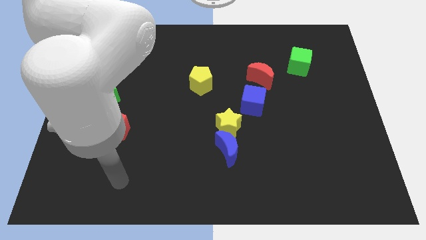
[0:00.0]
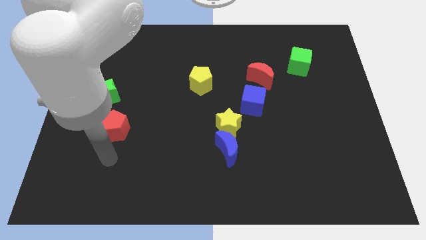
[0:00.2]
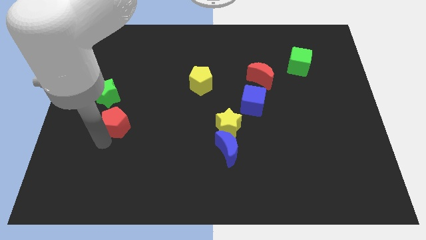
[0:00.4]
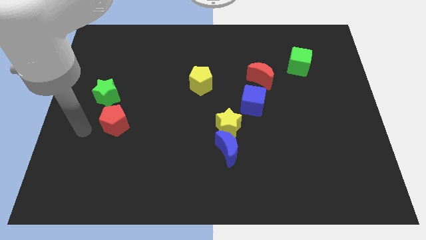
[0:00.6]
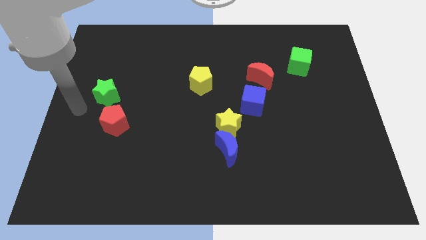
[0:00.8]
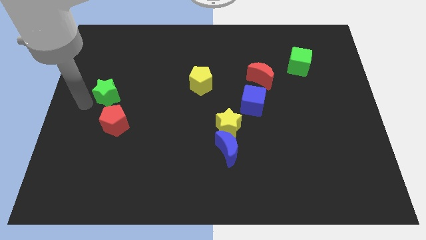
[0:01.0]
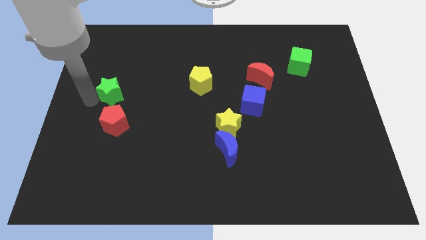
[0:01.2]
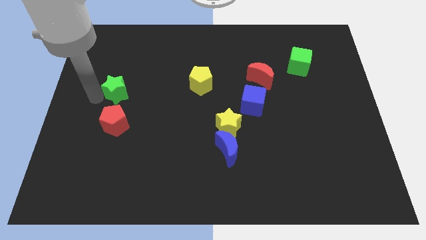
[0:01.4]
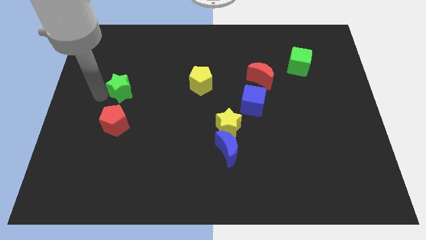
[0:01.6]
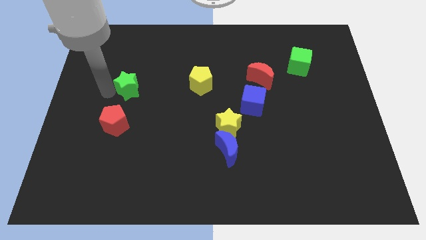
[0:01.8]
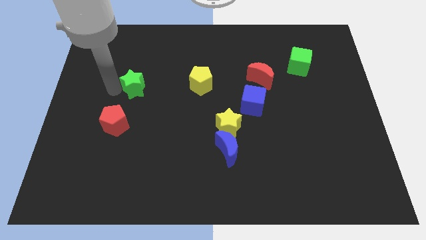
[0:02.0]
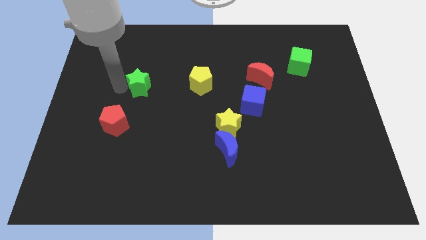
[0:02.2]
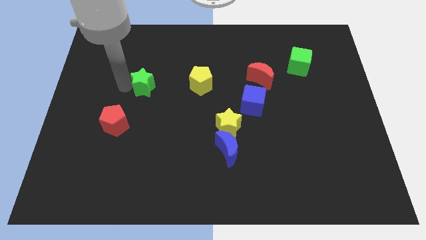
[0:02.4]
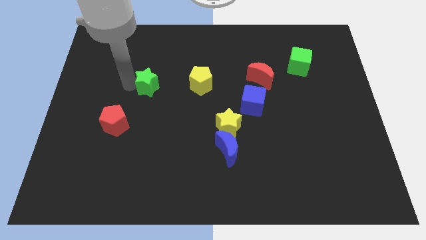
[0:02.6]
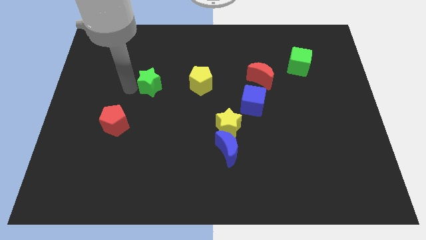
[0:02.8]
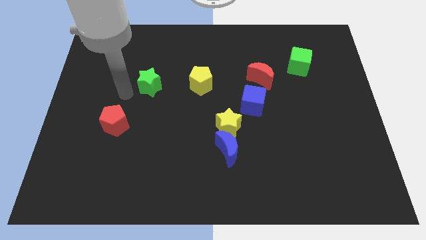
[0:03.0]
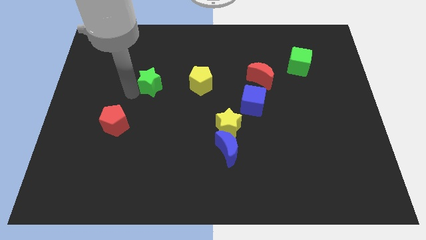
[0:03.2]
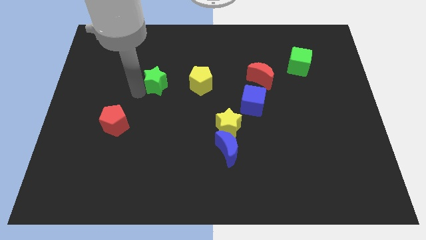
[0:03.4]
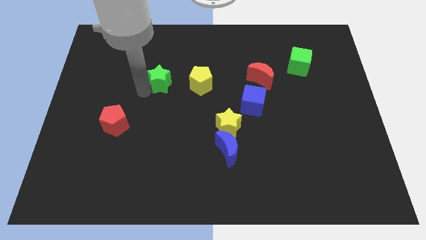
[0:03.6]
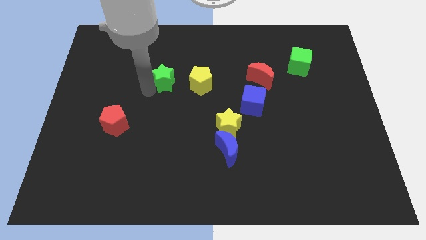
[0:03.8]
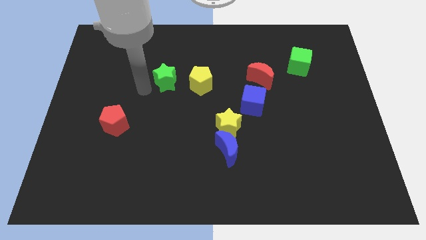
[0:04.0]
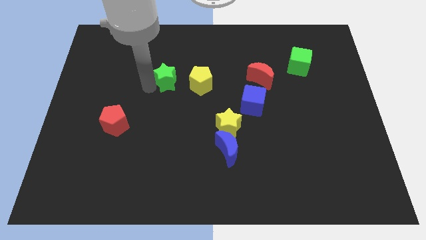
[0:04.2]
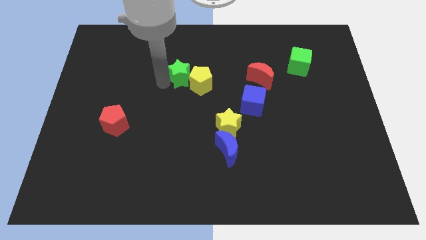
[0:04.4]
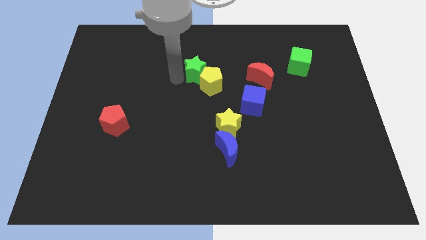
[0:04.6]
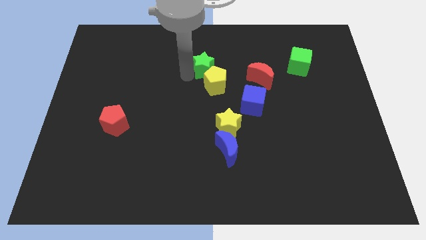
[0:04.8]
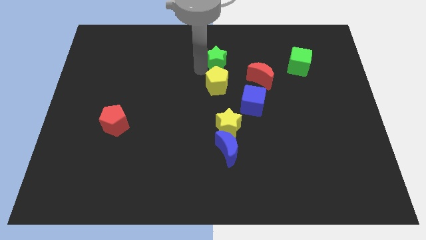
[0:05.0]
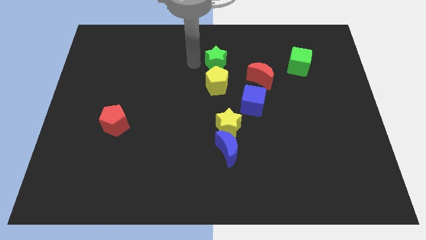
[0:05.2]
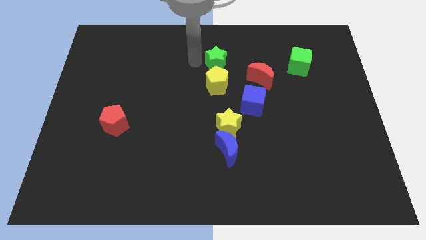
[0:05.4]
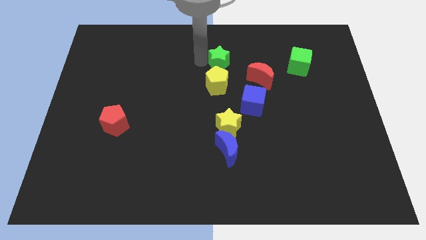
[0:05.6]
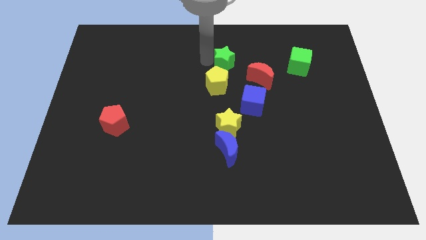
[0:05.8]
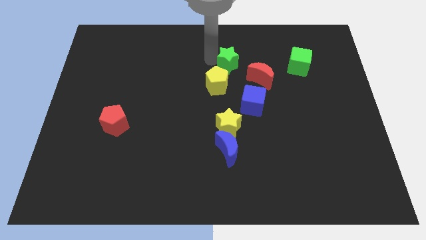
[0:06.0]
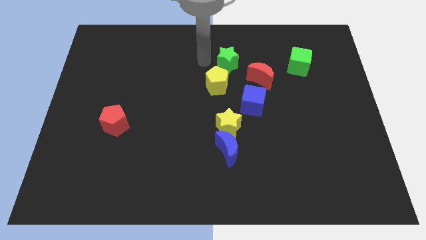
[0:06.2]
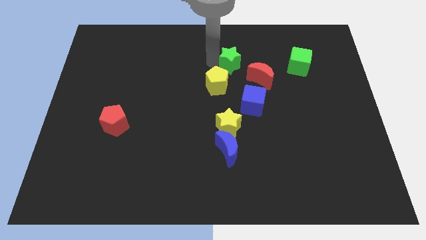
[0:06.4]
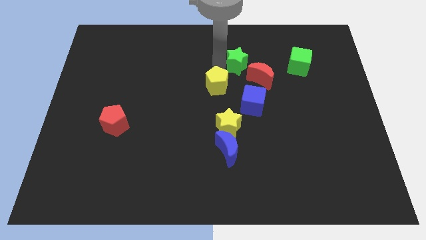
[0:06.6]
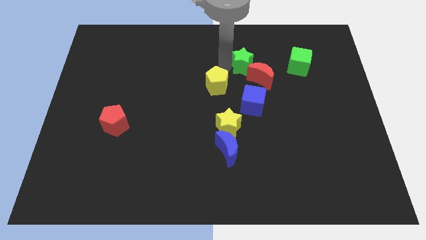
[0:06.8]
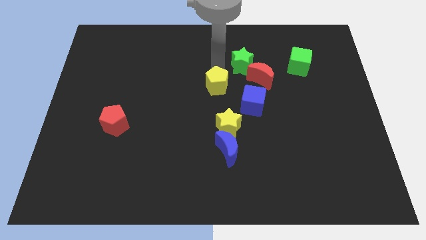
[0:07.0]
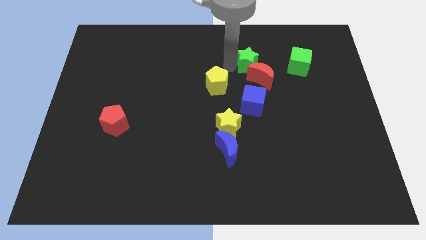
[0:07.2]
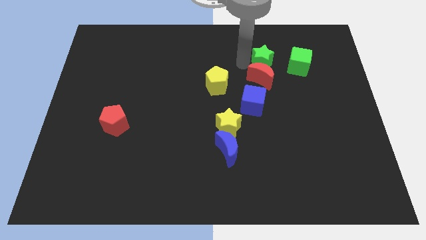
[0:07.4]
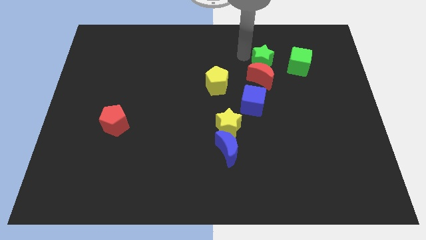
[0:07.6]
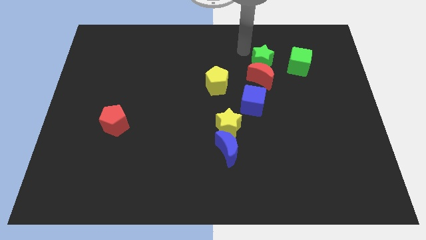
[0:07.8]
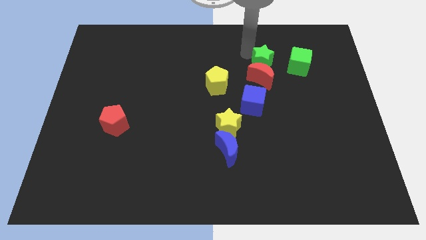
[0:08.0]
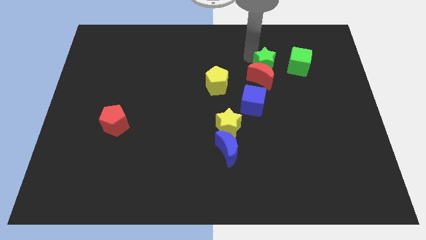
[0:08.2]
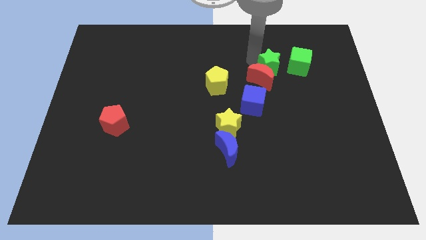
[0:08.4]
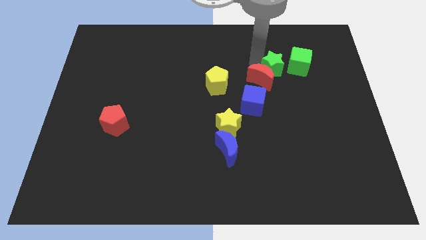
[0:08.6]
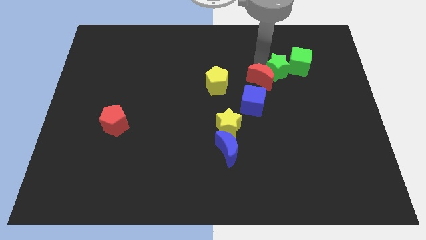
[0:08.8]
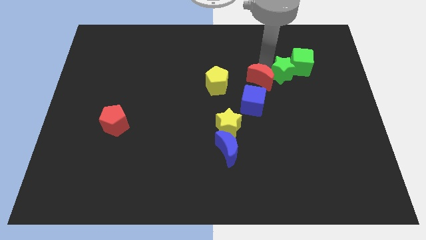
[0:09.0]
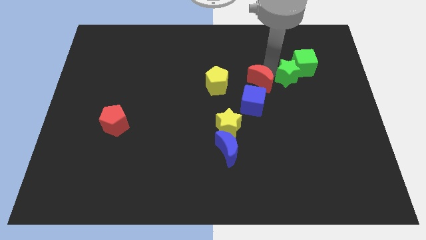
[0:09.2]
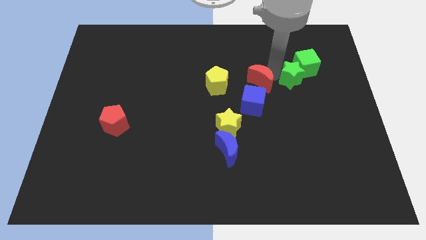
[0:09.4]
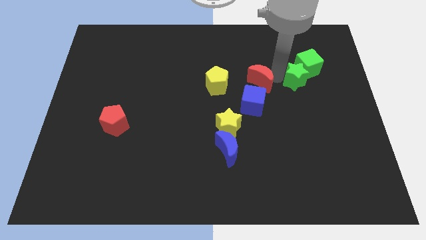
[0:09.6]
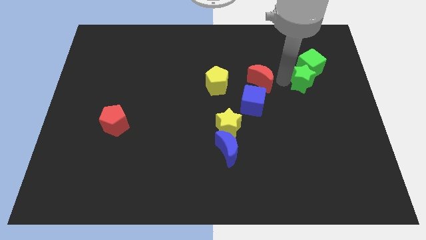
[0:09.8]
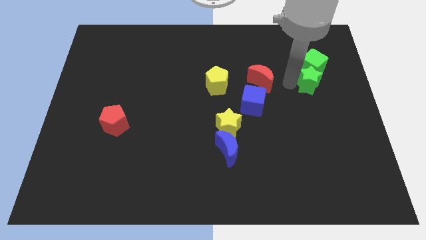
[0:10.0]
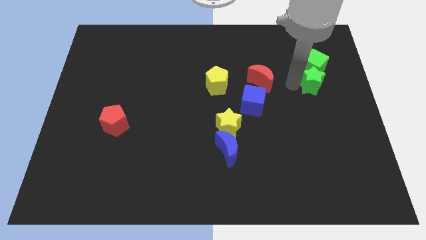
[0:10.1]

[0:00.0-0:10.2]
slide the green star diagonally down and to the right of the green cube

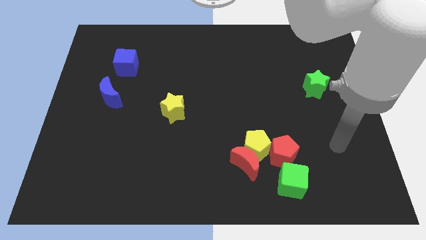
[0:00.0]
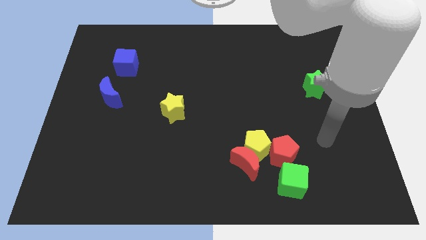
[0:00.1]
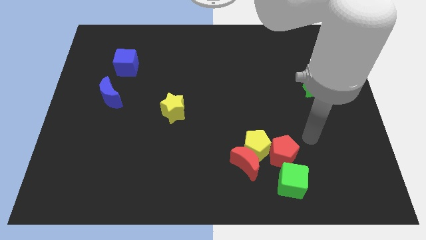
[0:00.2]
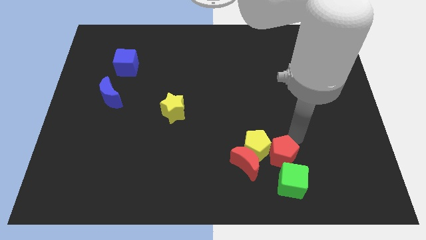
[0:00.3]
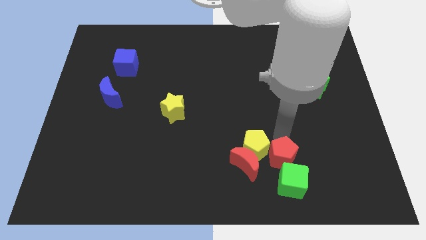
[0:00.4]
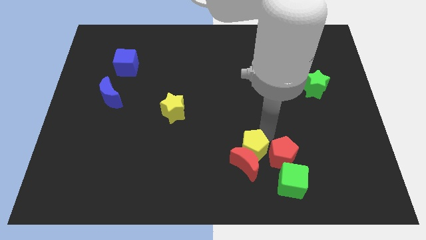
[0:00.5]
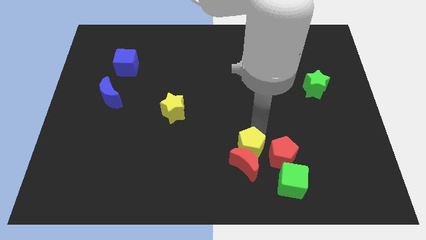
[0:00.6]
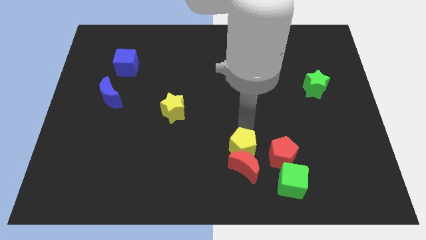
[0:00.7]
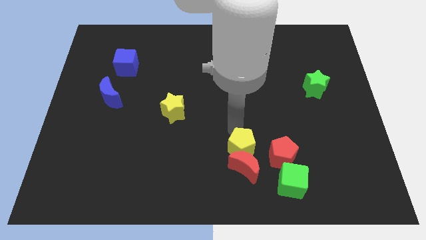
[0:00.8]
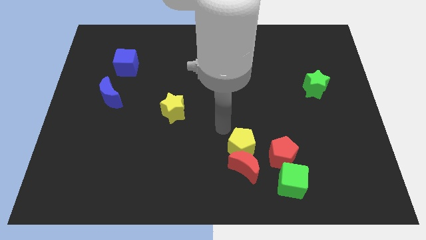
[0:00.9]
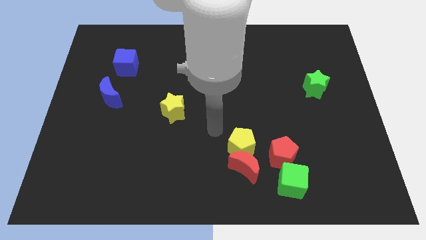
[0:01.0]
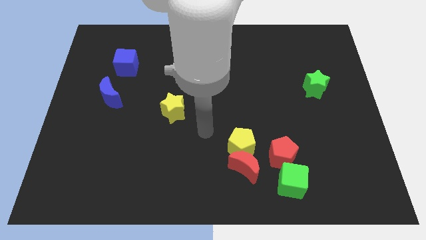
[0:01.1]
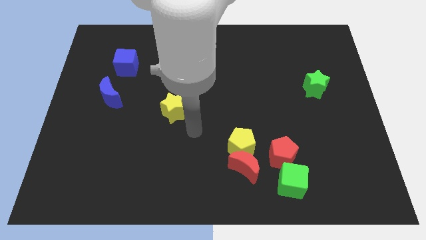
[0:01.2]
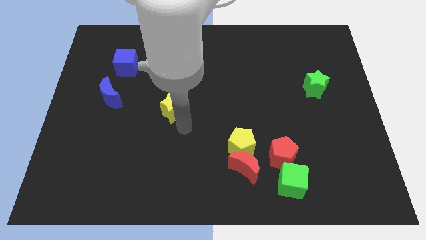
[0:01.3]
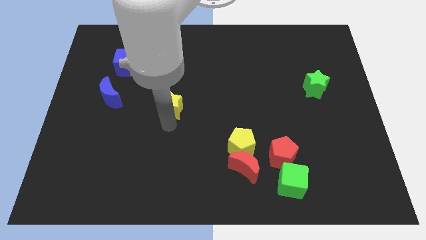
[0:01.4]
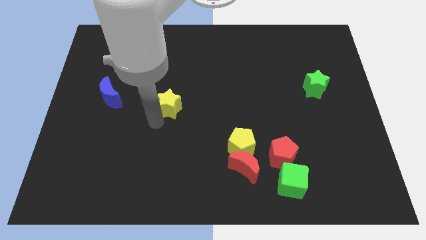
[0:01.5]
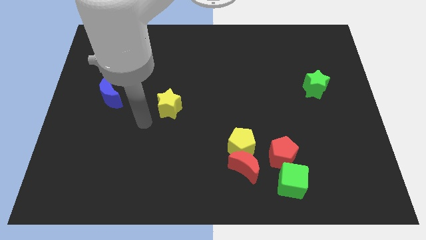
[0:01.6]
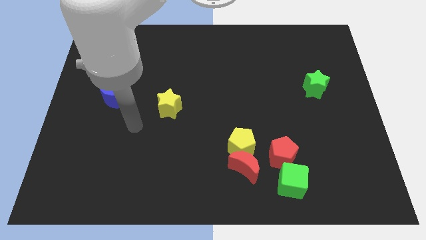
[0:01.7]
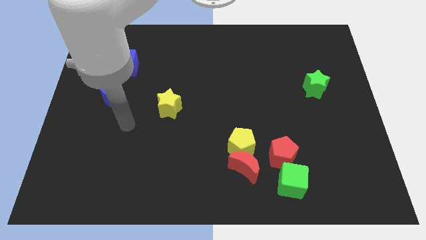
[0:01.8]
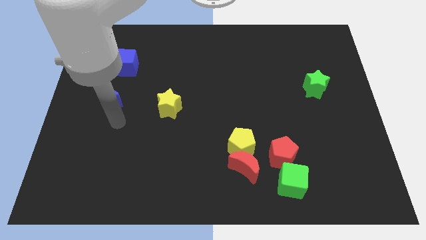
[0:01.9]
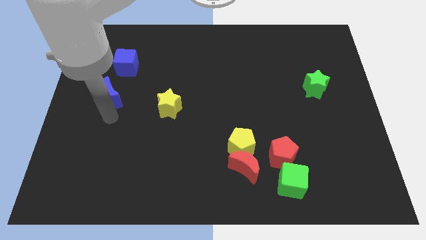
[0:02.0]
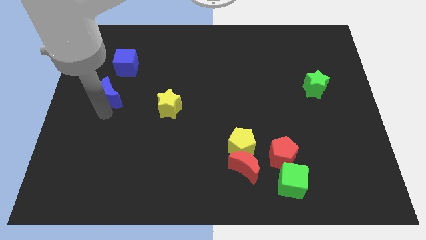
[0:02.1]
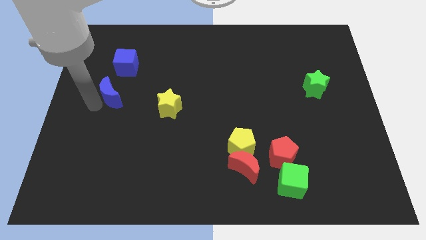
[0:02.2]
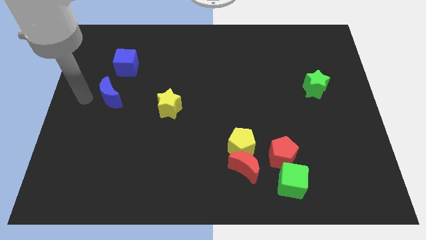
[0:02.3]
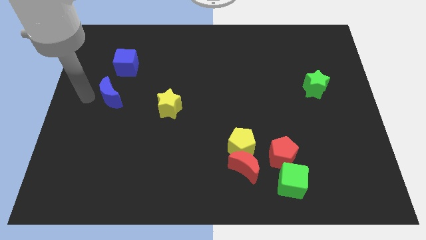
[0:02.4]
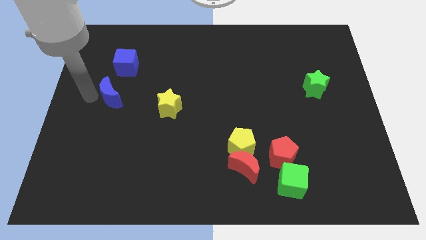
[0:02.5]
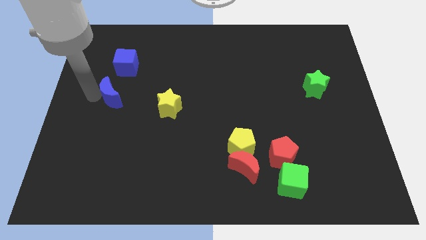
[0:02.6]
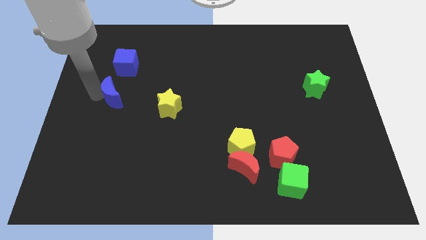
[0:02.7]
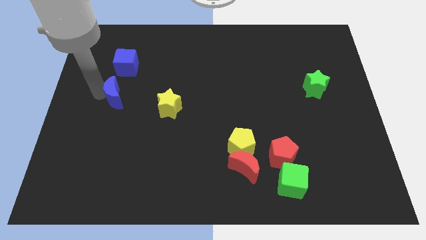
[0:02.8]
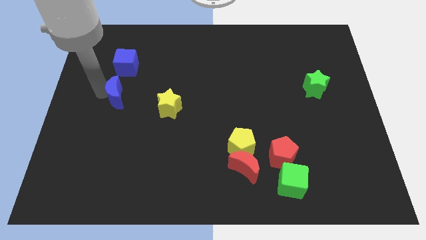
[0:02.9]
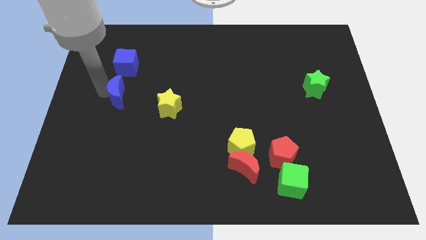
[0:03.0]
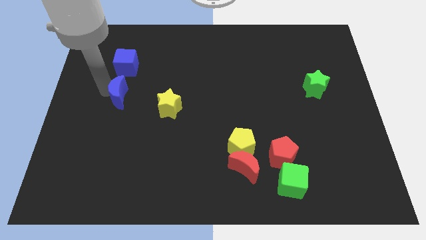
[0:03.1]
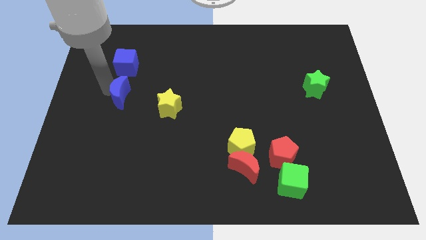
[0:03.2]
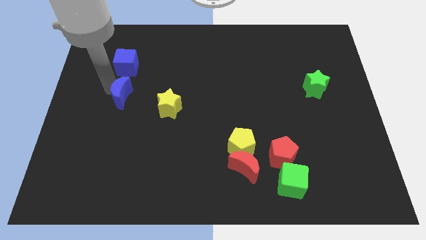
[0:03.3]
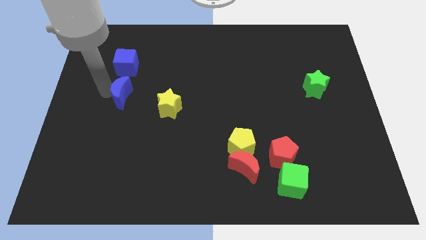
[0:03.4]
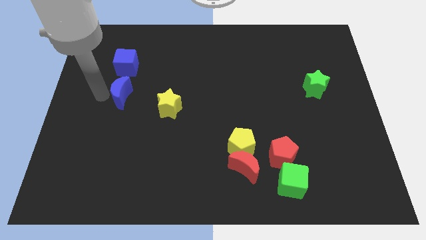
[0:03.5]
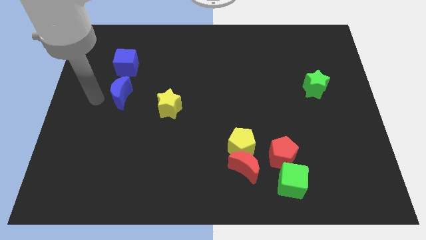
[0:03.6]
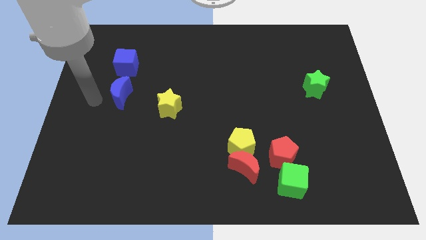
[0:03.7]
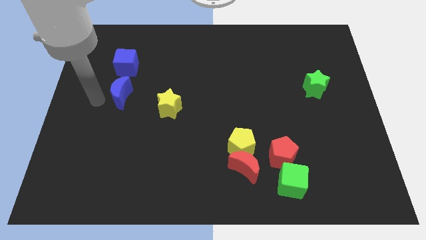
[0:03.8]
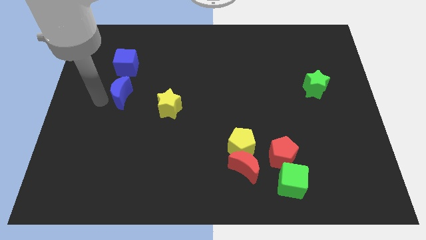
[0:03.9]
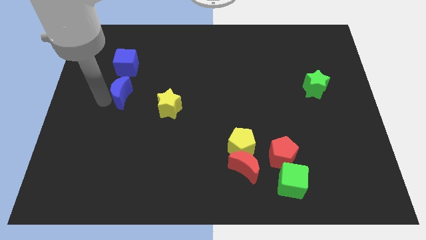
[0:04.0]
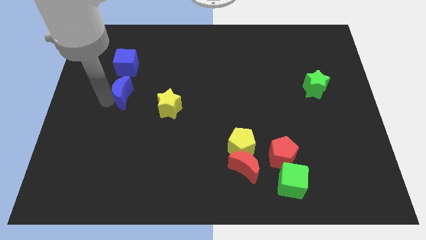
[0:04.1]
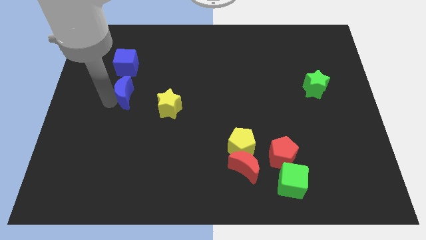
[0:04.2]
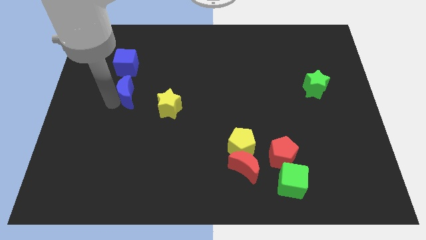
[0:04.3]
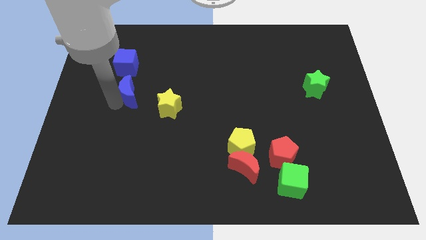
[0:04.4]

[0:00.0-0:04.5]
push the blue moon to the top left side of the yellow star
